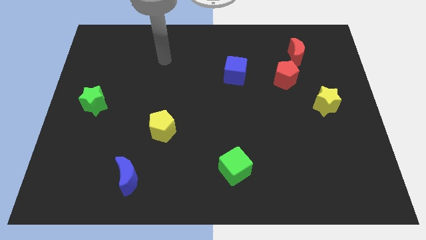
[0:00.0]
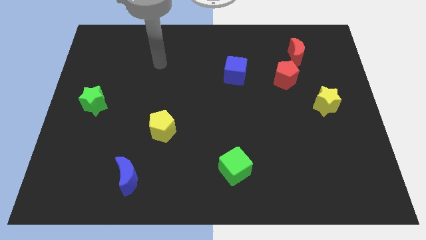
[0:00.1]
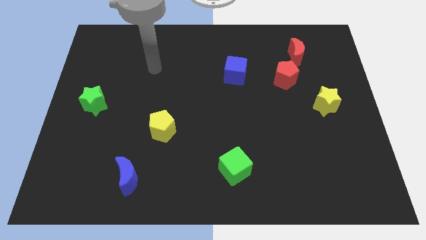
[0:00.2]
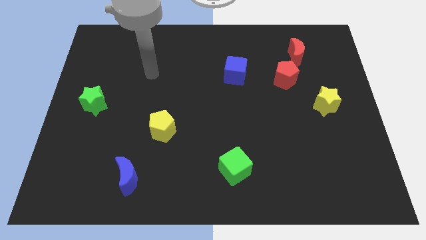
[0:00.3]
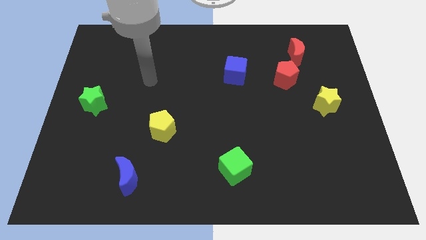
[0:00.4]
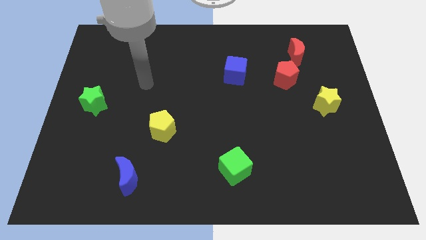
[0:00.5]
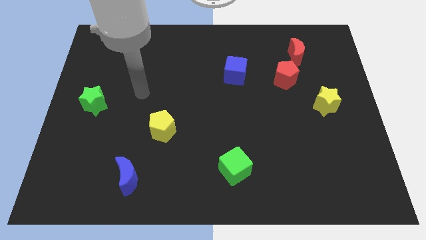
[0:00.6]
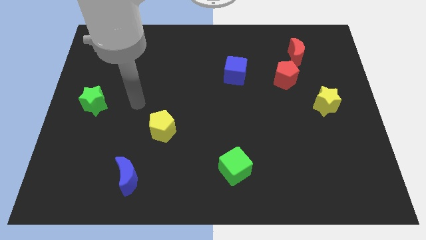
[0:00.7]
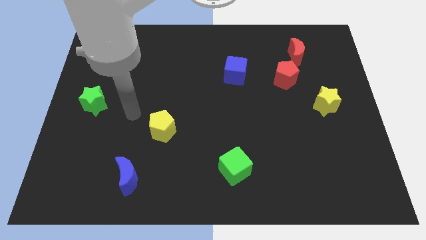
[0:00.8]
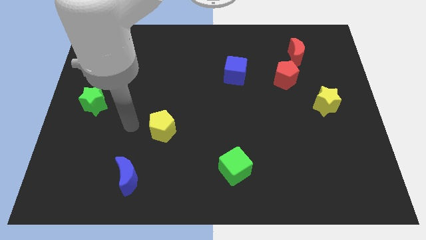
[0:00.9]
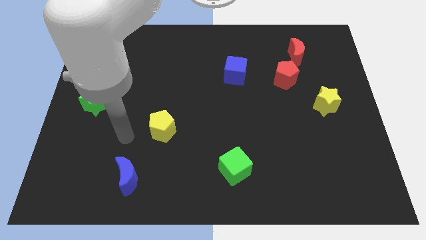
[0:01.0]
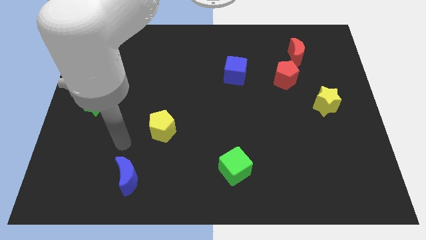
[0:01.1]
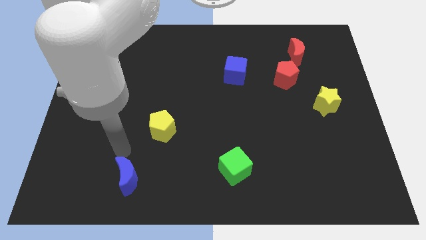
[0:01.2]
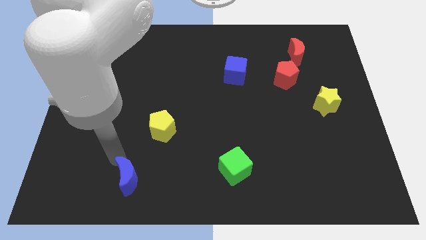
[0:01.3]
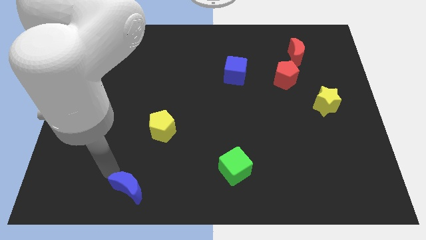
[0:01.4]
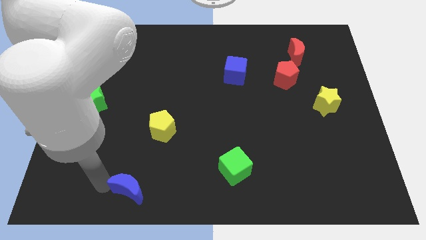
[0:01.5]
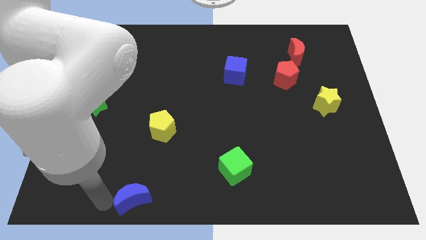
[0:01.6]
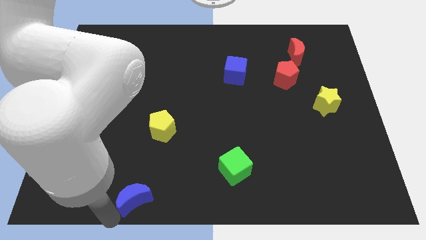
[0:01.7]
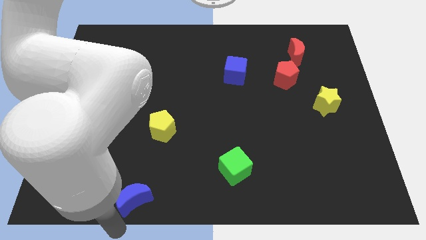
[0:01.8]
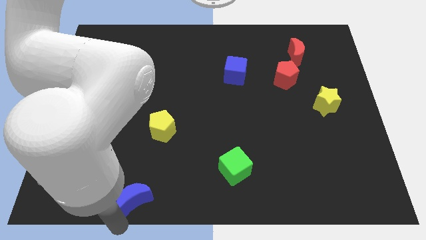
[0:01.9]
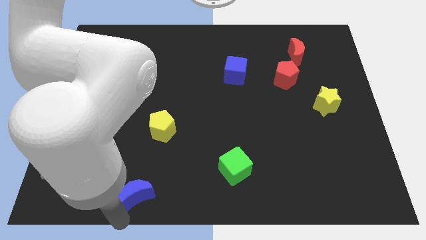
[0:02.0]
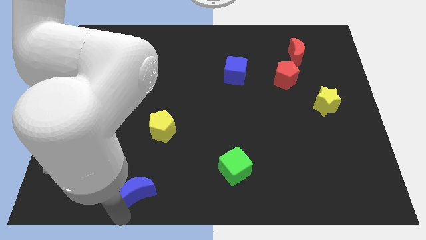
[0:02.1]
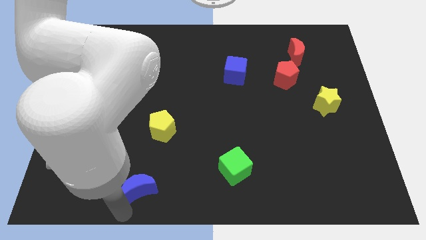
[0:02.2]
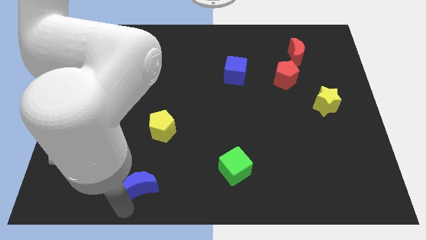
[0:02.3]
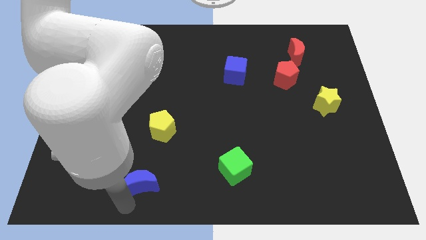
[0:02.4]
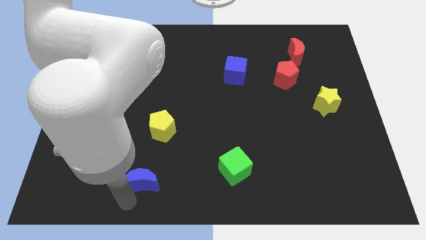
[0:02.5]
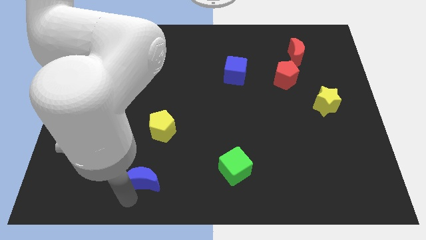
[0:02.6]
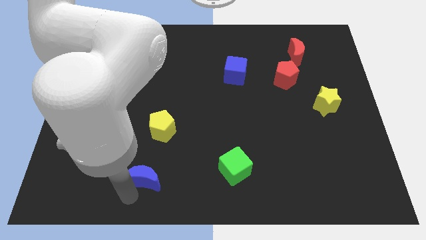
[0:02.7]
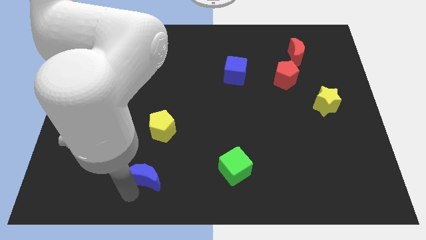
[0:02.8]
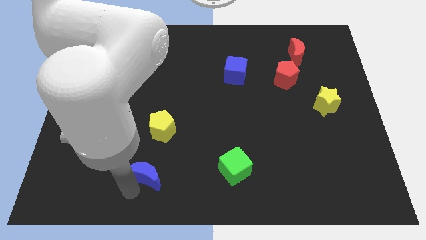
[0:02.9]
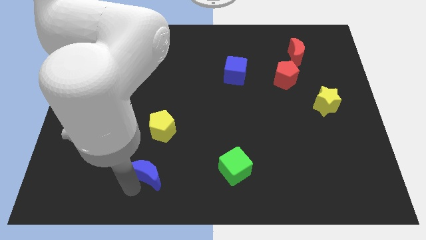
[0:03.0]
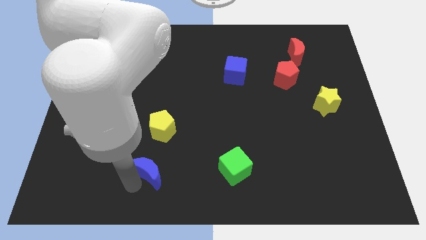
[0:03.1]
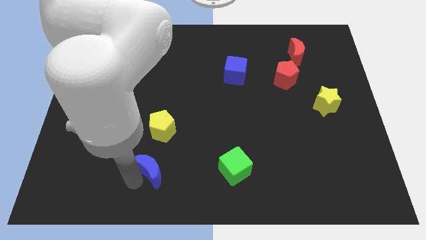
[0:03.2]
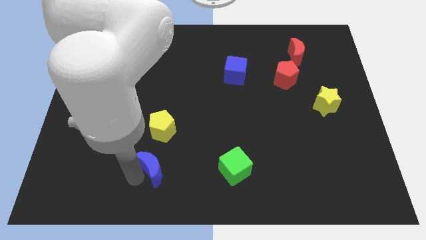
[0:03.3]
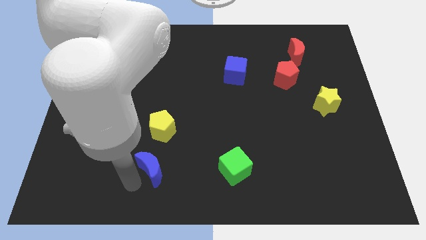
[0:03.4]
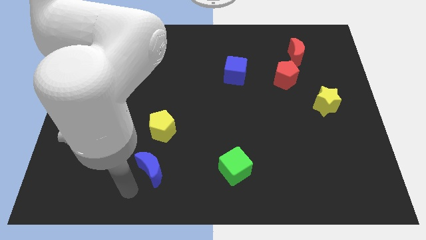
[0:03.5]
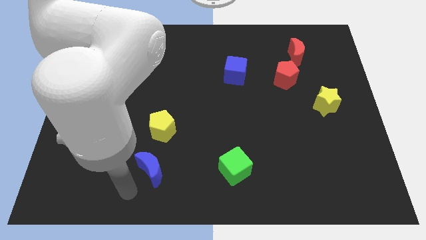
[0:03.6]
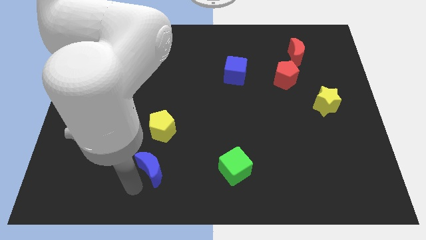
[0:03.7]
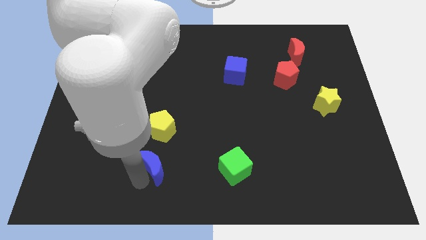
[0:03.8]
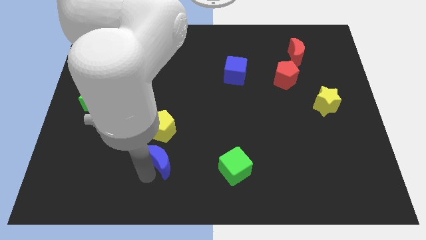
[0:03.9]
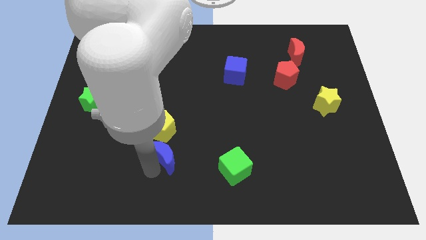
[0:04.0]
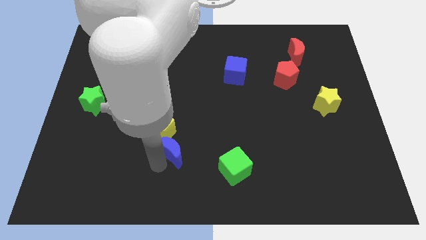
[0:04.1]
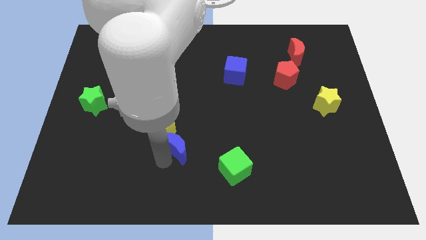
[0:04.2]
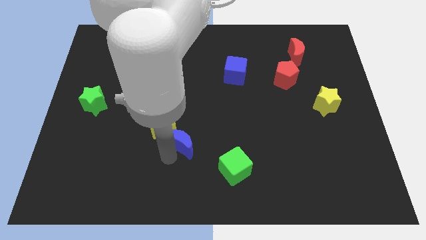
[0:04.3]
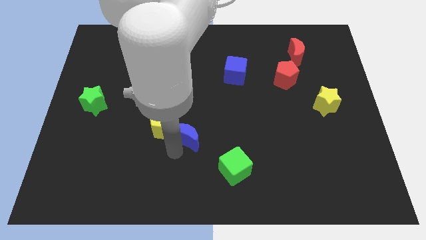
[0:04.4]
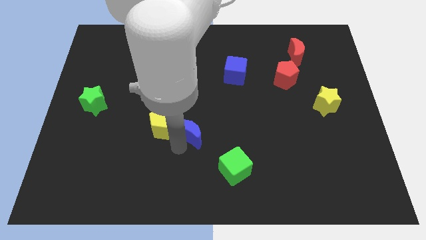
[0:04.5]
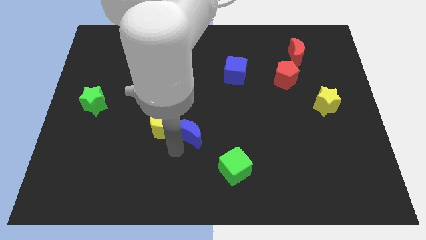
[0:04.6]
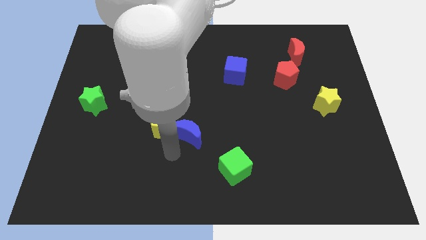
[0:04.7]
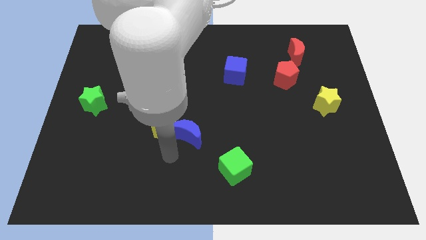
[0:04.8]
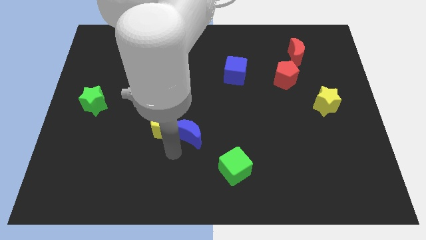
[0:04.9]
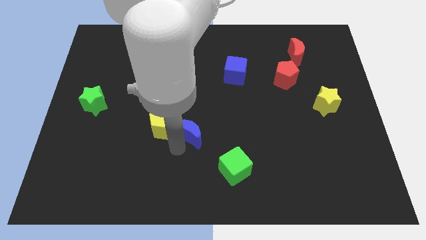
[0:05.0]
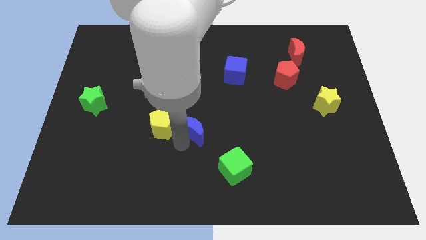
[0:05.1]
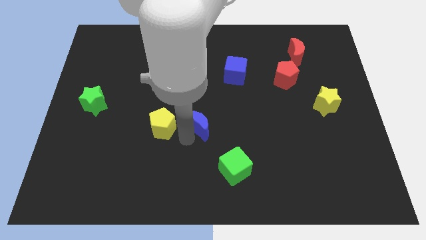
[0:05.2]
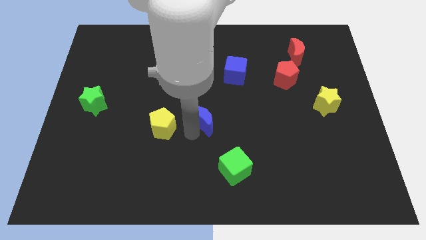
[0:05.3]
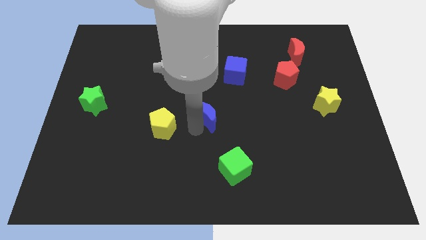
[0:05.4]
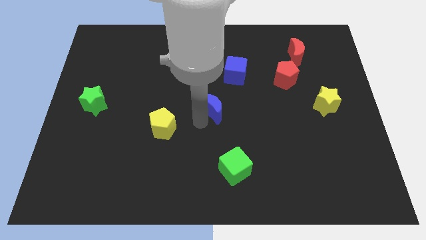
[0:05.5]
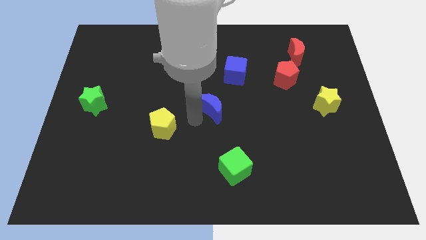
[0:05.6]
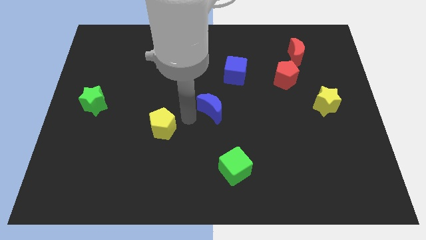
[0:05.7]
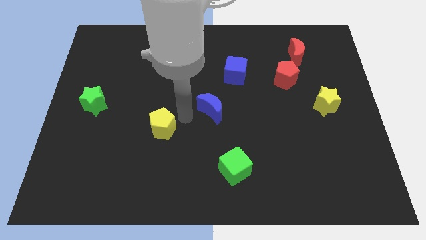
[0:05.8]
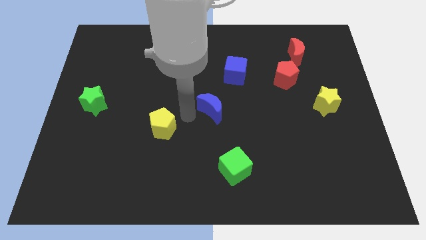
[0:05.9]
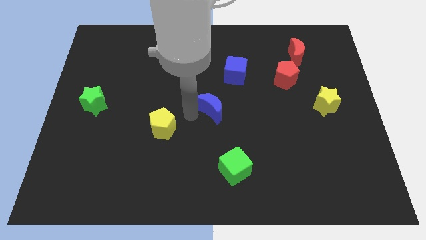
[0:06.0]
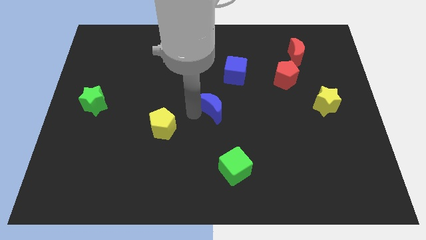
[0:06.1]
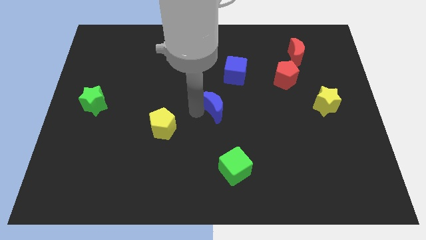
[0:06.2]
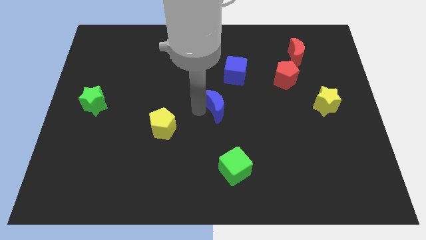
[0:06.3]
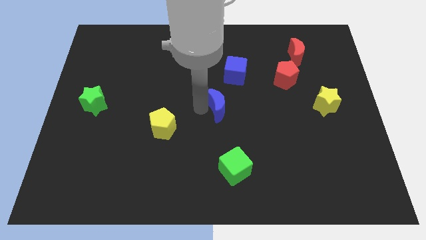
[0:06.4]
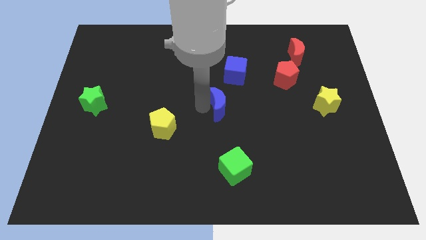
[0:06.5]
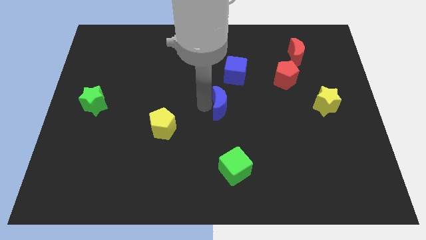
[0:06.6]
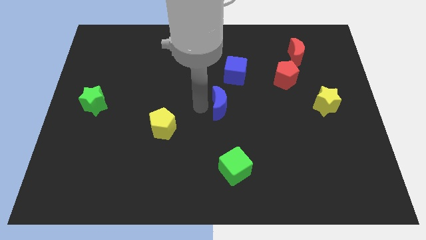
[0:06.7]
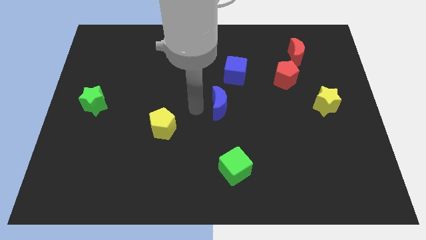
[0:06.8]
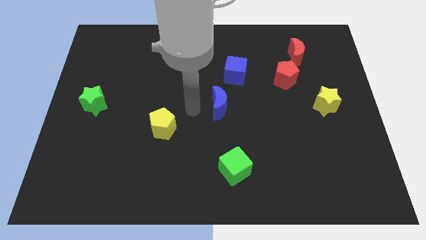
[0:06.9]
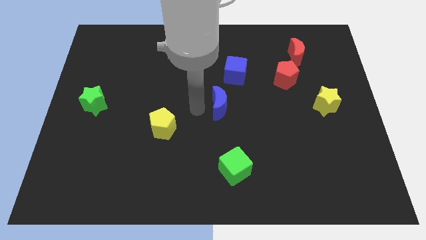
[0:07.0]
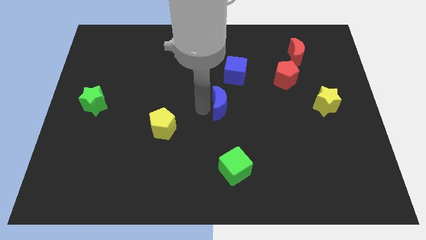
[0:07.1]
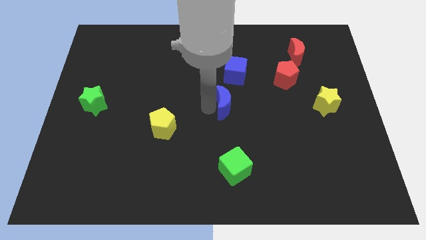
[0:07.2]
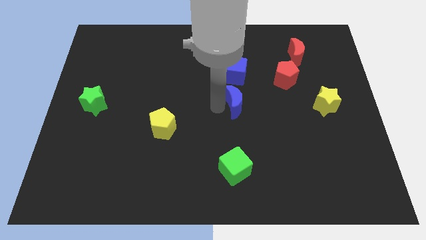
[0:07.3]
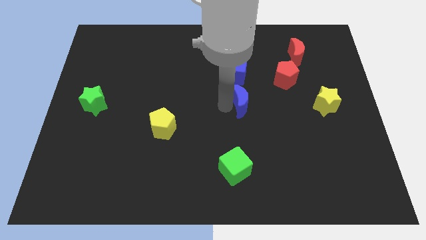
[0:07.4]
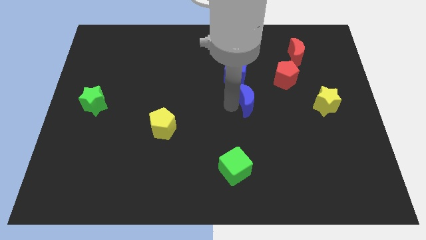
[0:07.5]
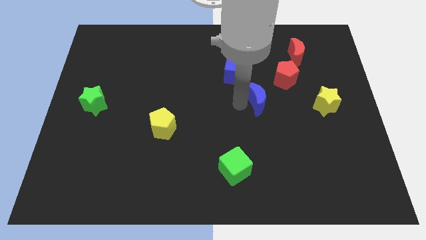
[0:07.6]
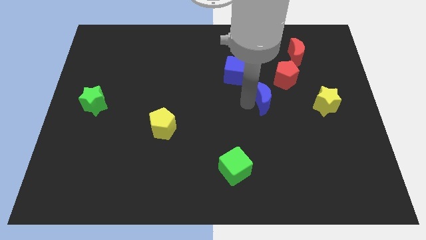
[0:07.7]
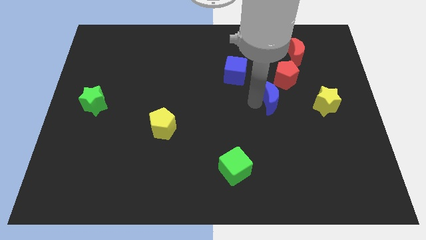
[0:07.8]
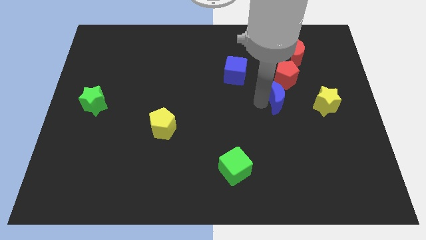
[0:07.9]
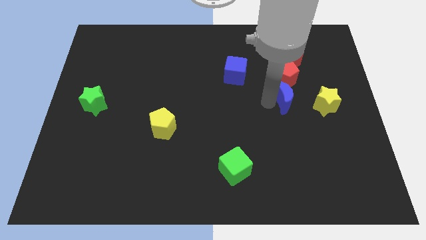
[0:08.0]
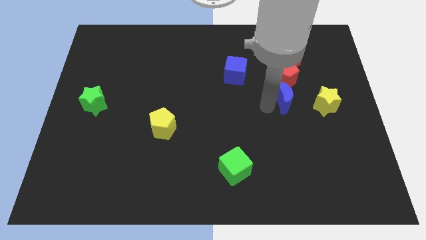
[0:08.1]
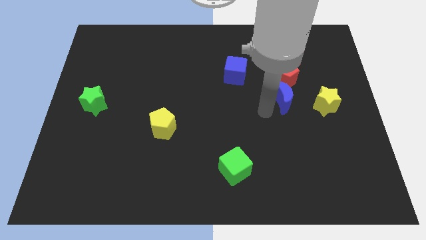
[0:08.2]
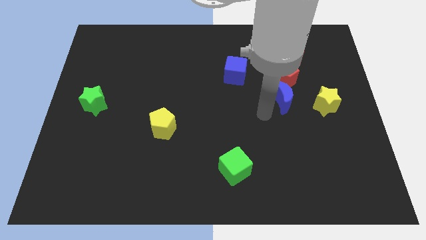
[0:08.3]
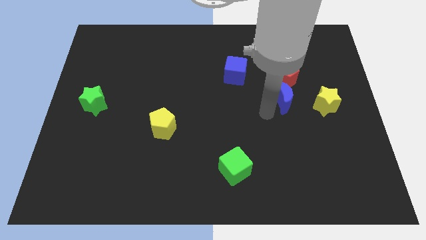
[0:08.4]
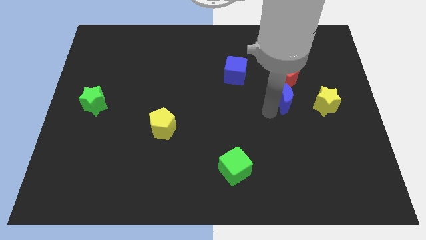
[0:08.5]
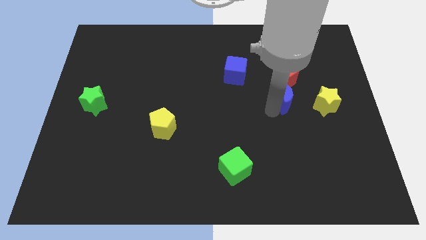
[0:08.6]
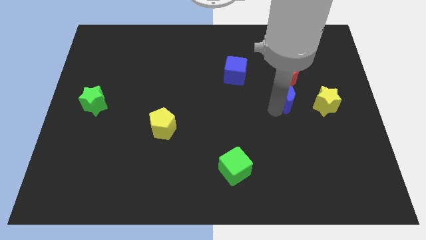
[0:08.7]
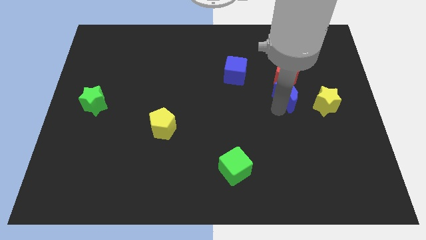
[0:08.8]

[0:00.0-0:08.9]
push the blue moon diagonally up and to the left of the yellow star
